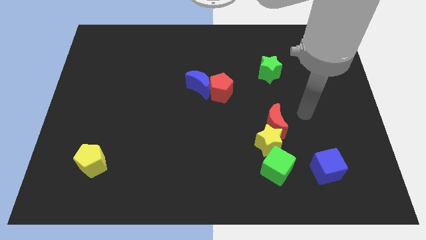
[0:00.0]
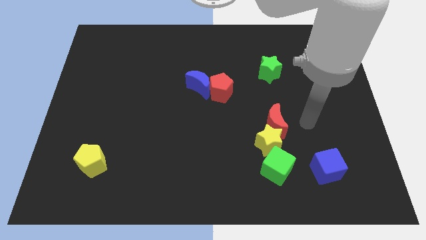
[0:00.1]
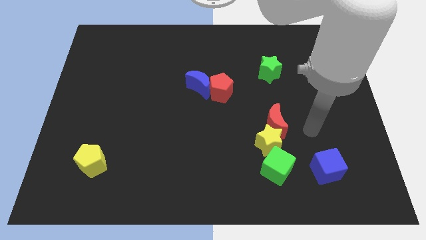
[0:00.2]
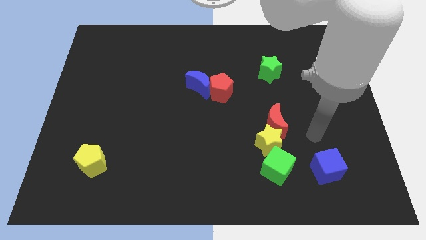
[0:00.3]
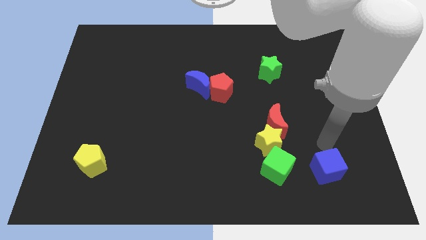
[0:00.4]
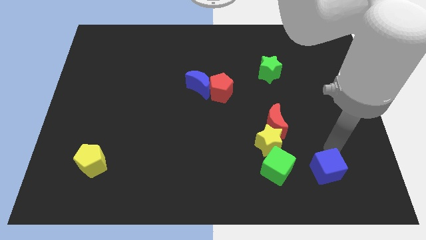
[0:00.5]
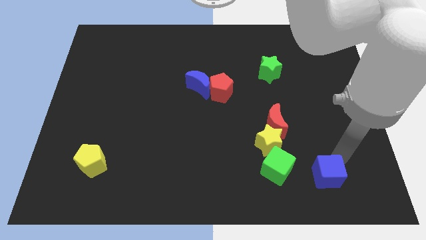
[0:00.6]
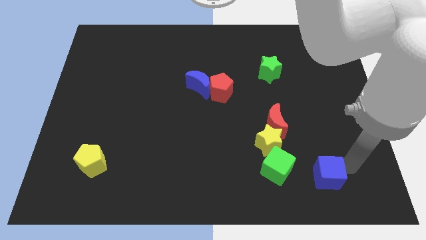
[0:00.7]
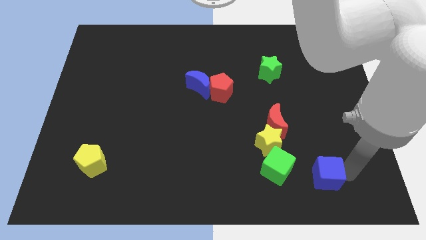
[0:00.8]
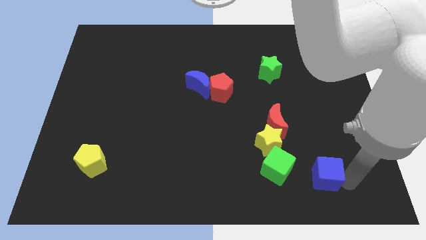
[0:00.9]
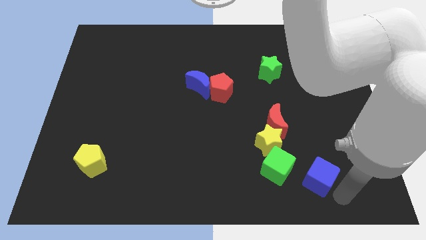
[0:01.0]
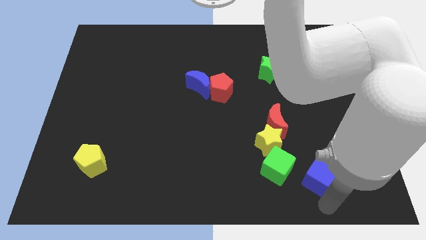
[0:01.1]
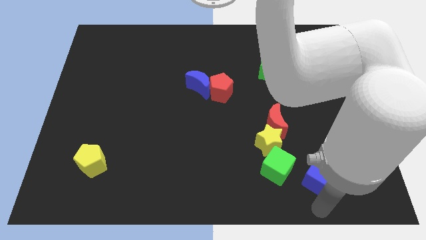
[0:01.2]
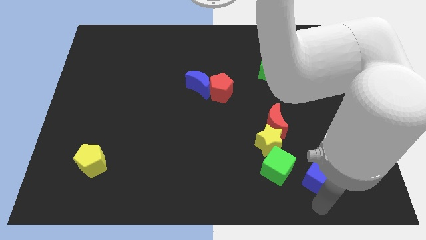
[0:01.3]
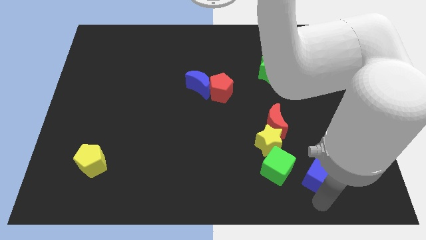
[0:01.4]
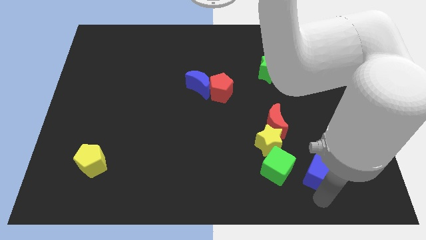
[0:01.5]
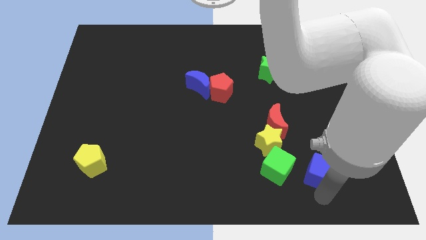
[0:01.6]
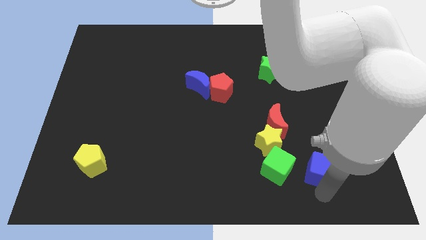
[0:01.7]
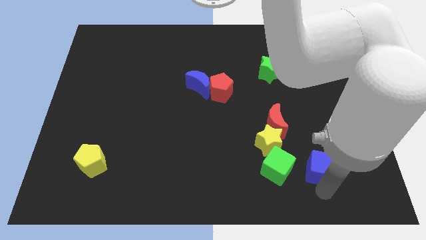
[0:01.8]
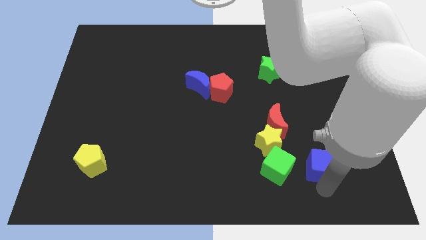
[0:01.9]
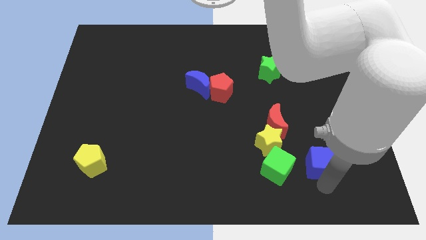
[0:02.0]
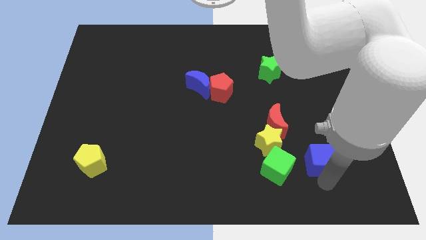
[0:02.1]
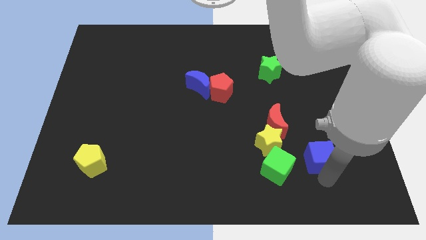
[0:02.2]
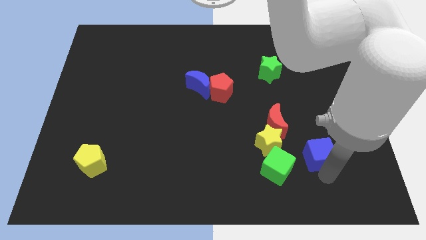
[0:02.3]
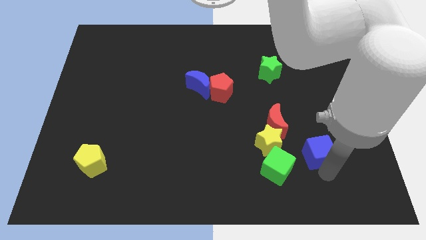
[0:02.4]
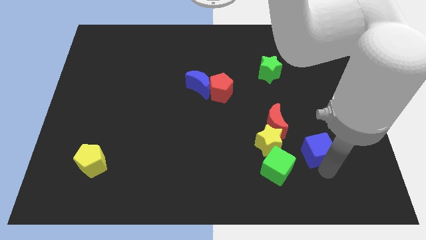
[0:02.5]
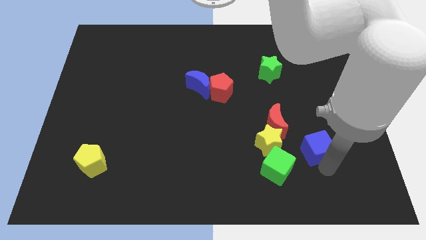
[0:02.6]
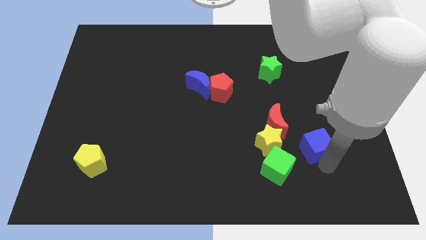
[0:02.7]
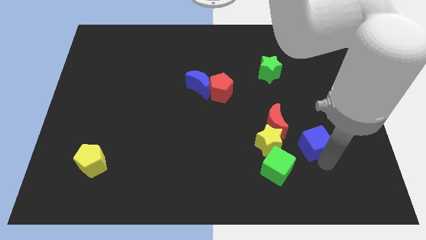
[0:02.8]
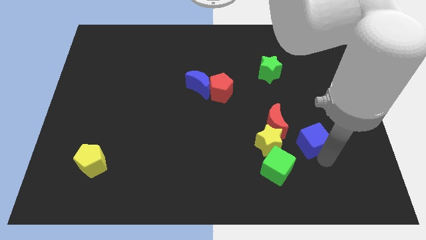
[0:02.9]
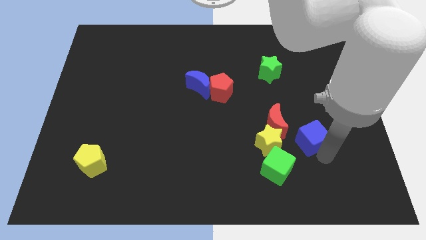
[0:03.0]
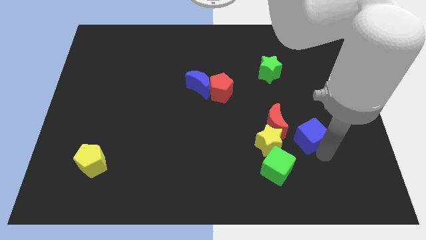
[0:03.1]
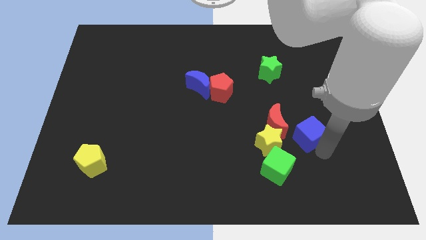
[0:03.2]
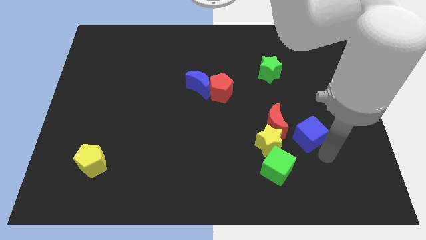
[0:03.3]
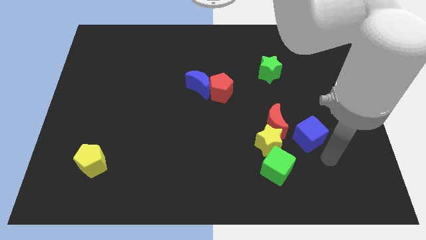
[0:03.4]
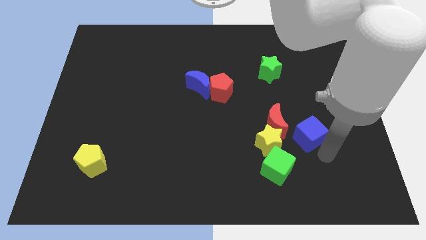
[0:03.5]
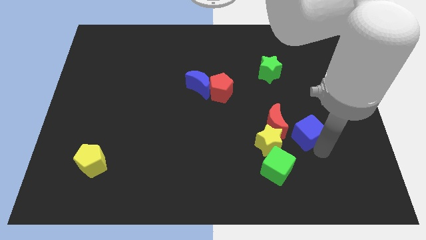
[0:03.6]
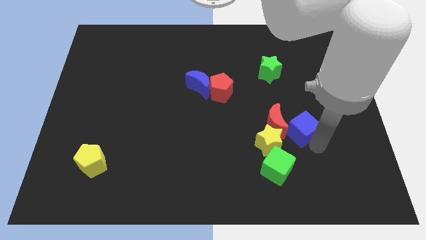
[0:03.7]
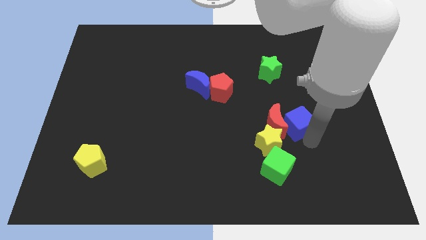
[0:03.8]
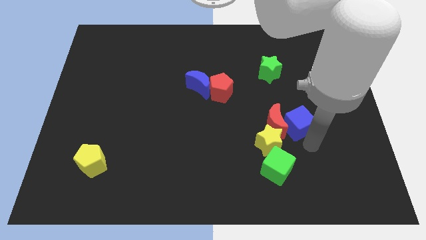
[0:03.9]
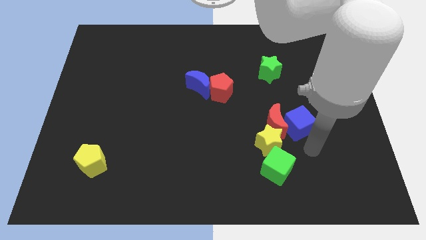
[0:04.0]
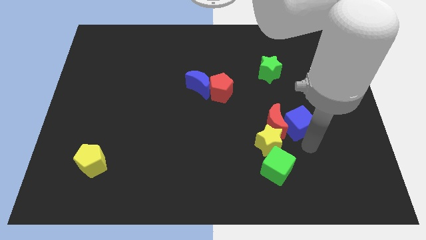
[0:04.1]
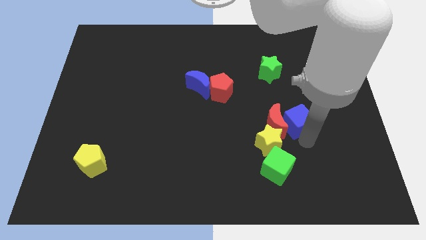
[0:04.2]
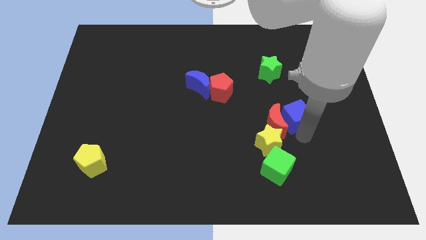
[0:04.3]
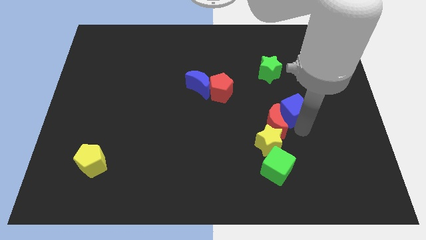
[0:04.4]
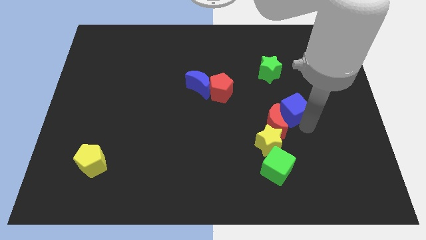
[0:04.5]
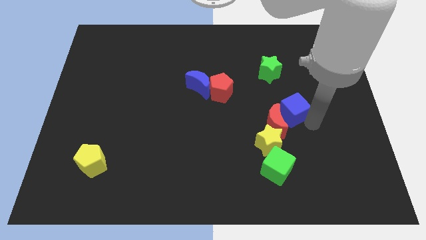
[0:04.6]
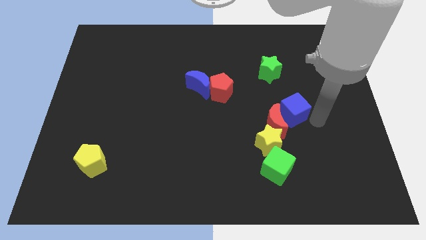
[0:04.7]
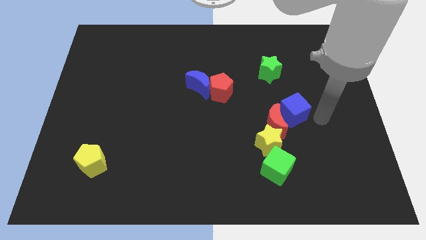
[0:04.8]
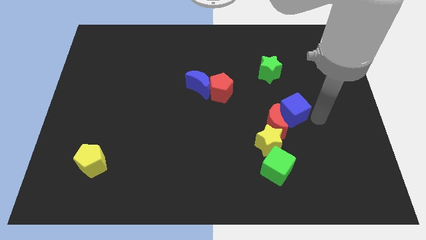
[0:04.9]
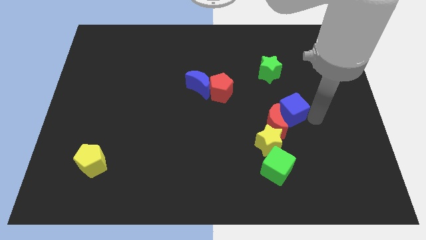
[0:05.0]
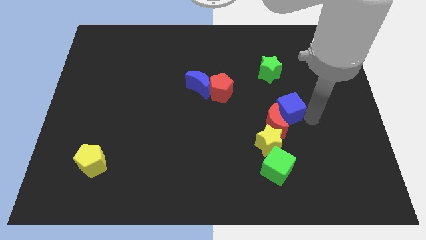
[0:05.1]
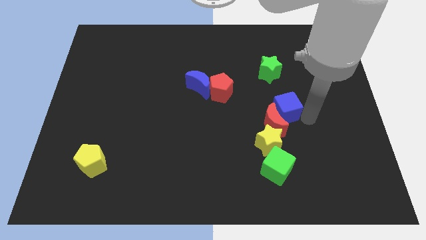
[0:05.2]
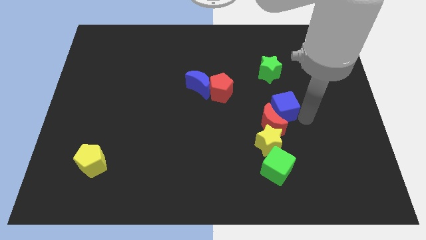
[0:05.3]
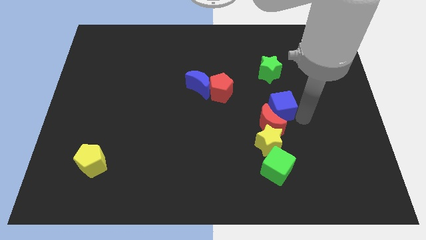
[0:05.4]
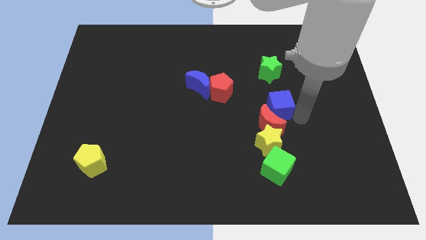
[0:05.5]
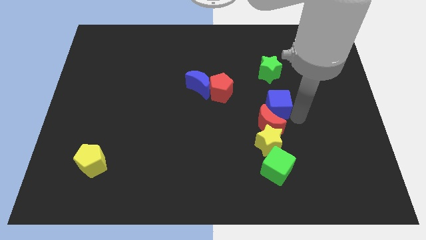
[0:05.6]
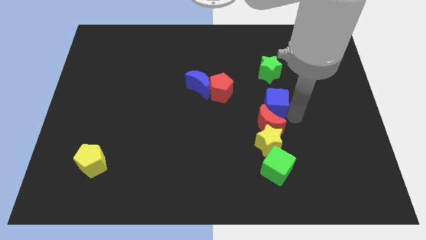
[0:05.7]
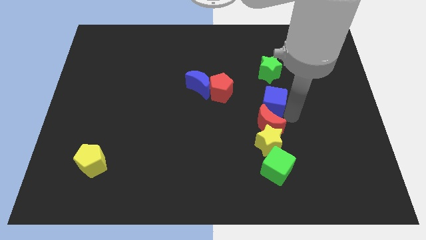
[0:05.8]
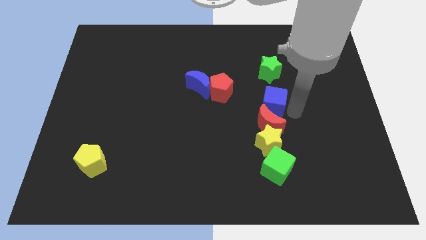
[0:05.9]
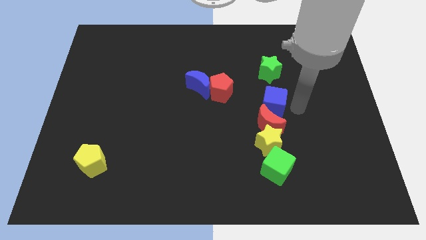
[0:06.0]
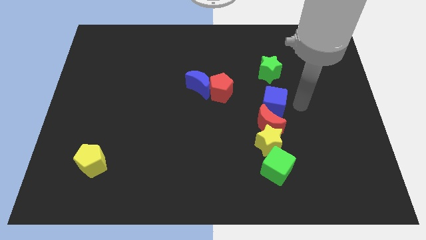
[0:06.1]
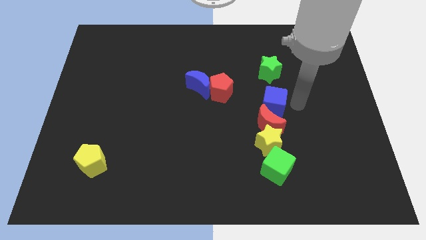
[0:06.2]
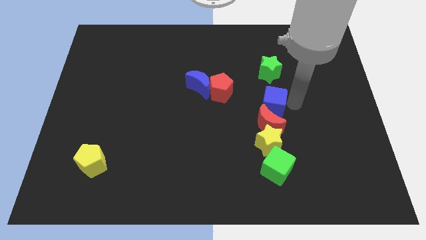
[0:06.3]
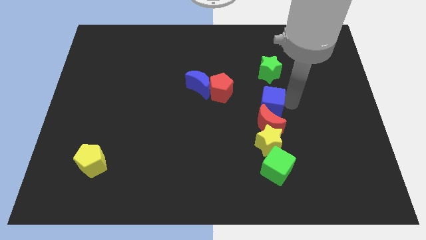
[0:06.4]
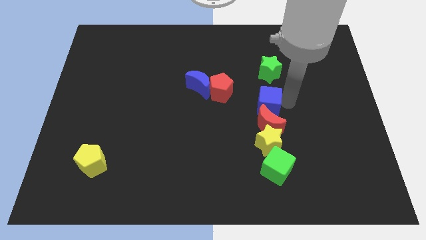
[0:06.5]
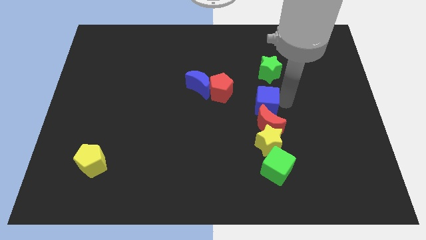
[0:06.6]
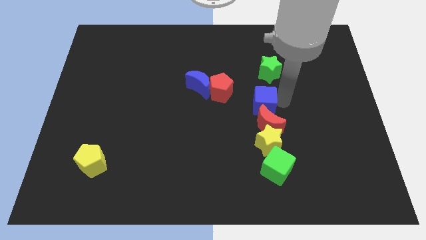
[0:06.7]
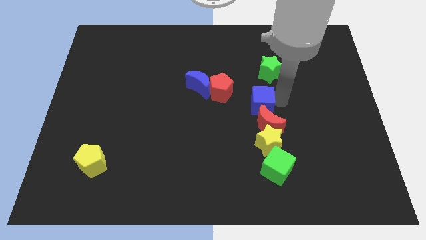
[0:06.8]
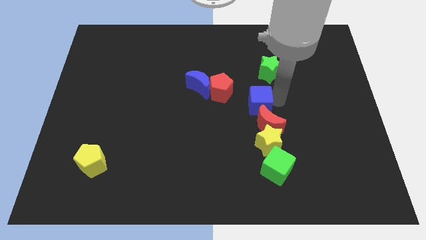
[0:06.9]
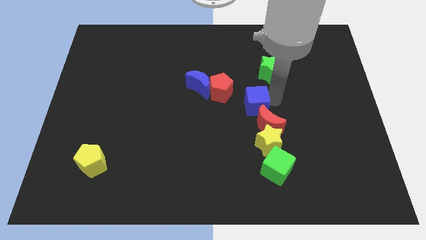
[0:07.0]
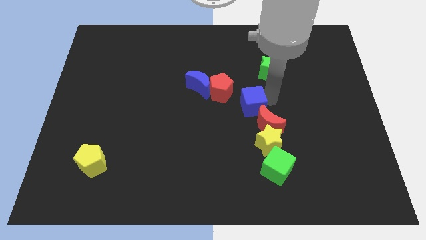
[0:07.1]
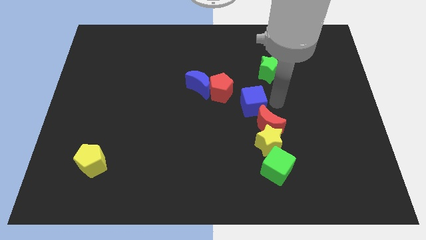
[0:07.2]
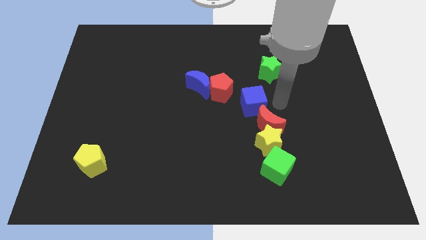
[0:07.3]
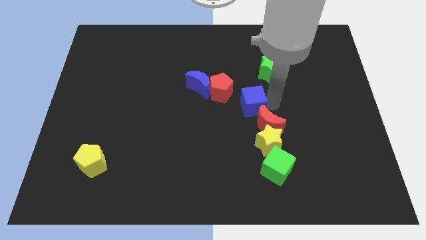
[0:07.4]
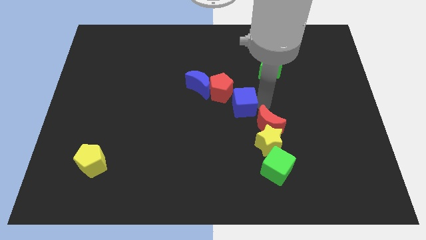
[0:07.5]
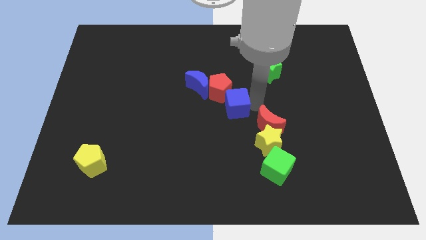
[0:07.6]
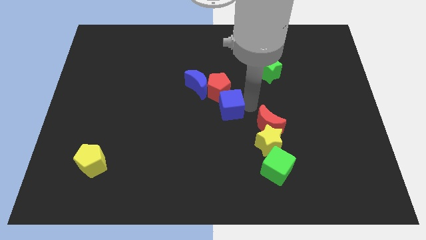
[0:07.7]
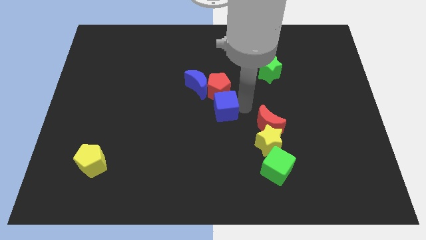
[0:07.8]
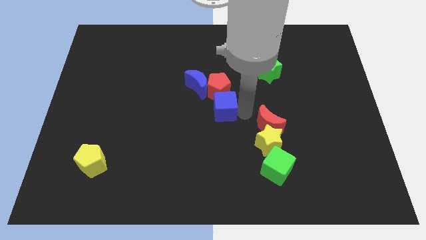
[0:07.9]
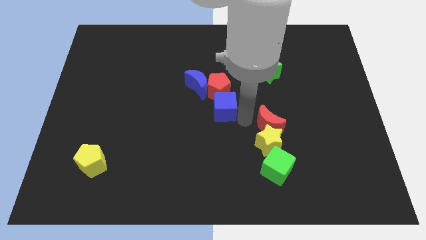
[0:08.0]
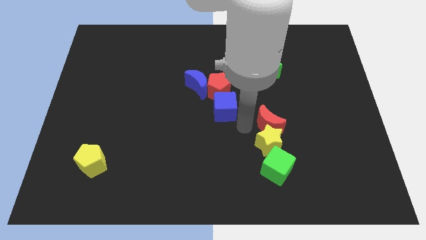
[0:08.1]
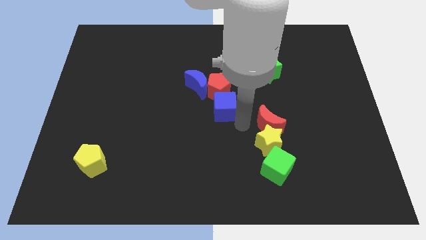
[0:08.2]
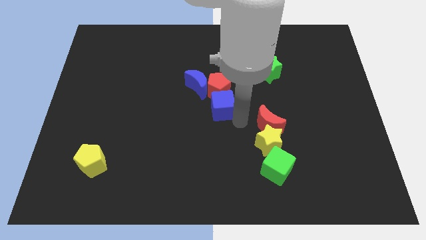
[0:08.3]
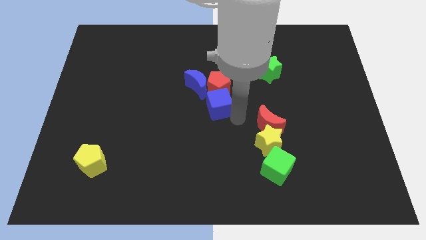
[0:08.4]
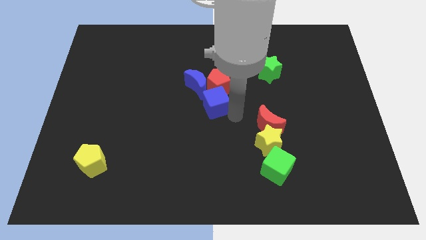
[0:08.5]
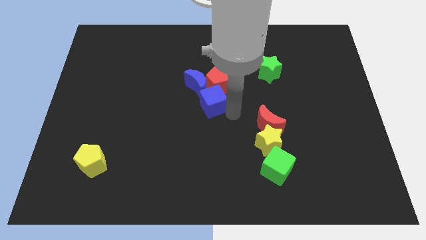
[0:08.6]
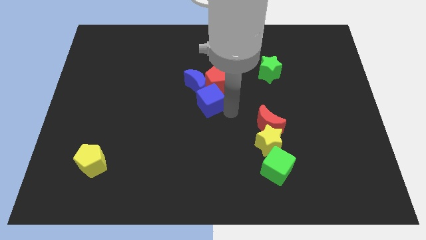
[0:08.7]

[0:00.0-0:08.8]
push the blue cube close to the blue moon
